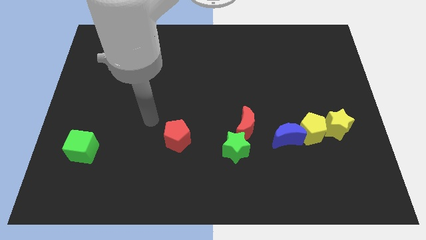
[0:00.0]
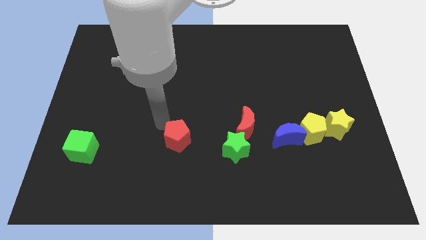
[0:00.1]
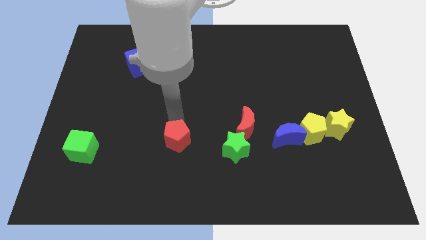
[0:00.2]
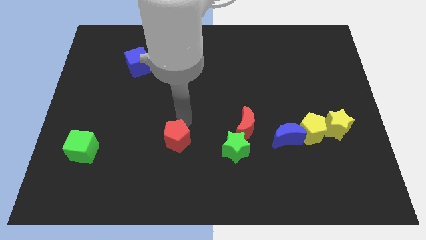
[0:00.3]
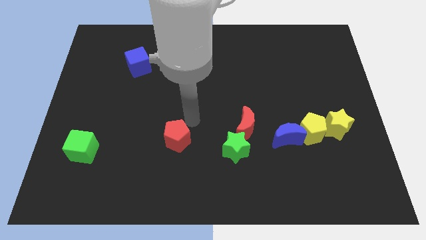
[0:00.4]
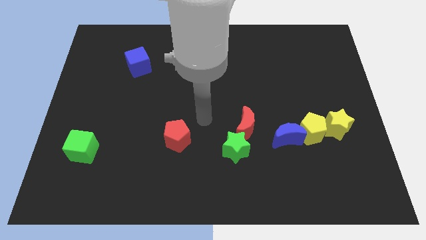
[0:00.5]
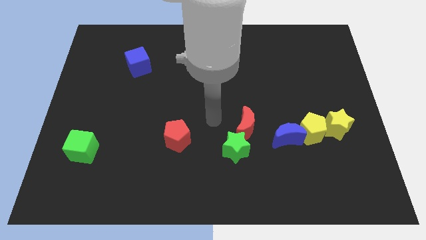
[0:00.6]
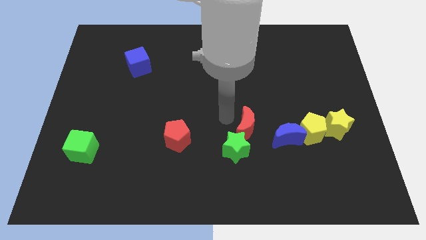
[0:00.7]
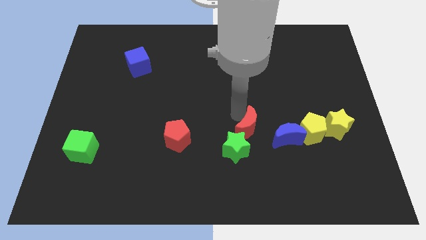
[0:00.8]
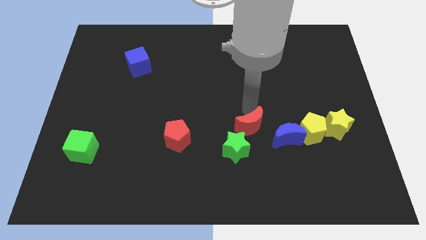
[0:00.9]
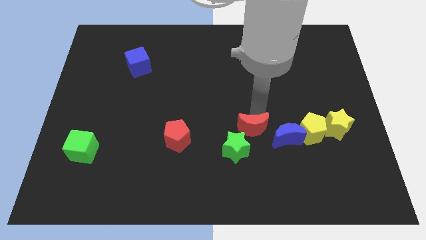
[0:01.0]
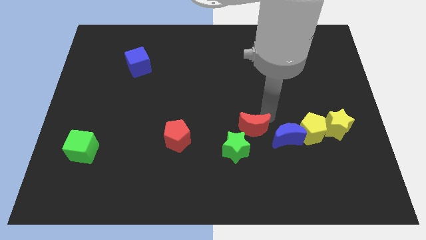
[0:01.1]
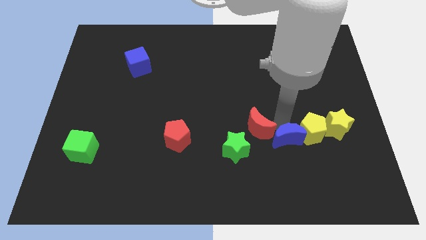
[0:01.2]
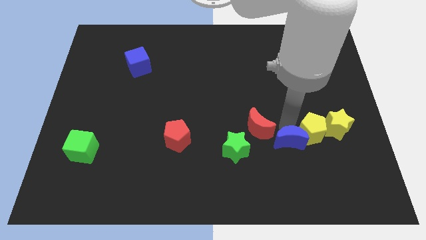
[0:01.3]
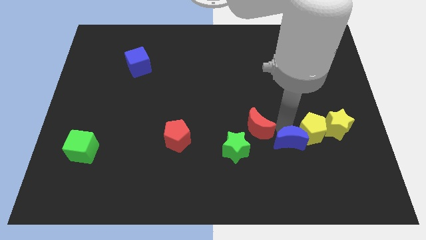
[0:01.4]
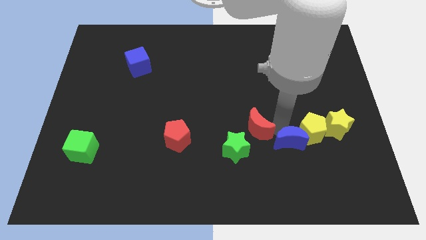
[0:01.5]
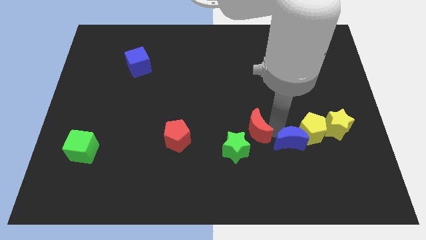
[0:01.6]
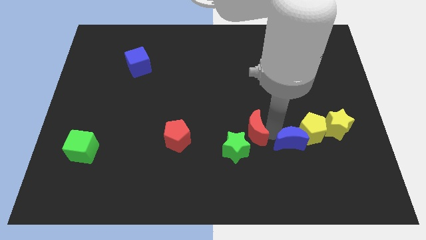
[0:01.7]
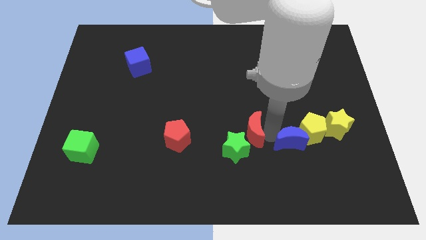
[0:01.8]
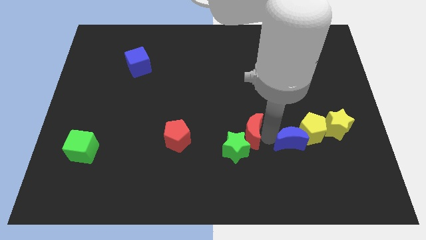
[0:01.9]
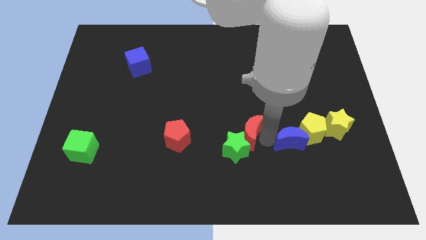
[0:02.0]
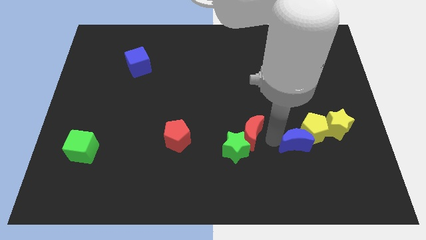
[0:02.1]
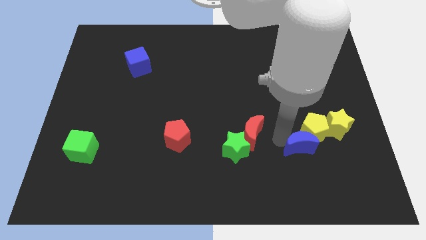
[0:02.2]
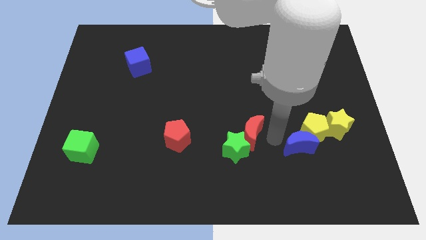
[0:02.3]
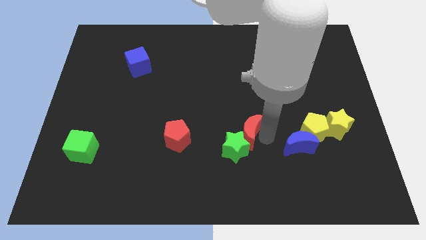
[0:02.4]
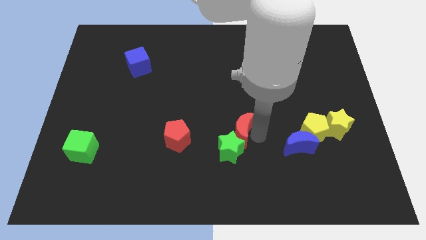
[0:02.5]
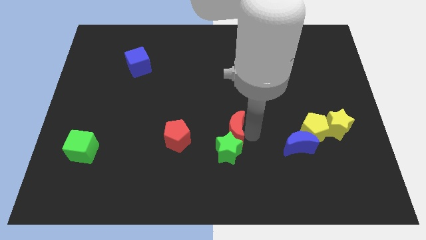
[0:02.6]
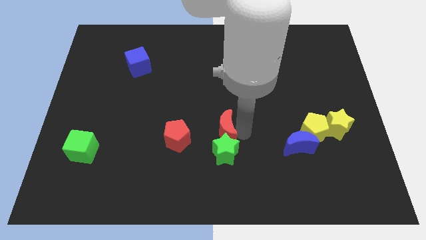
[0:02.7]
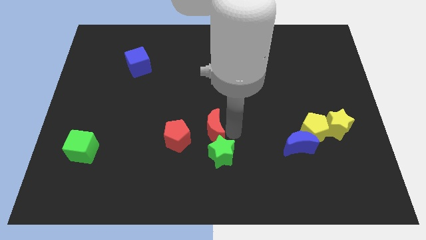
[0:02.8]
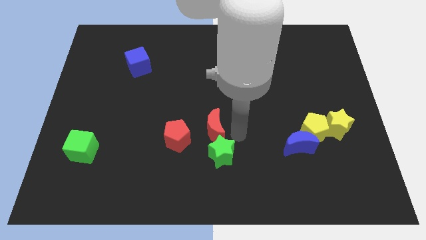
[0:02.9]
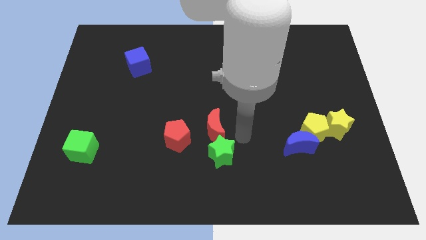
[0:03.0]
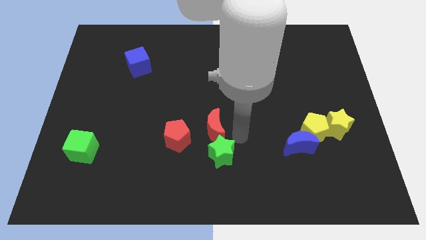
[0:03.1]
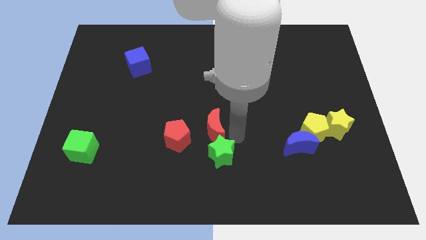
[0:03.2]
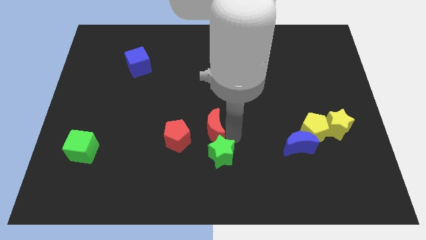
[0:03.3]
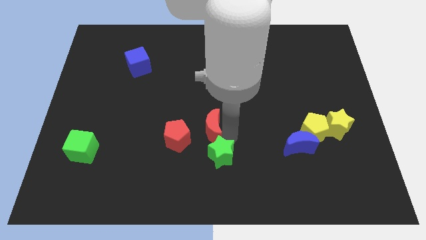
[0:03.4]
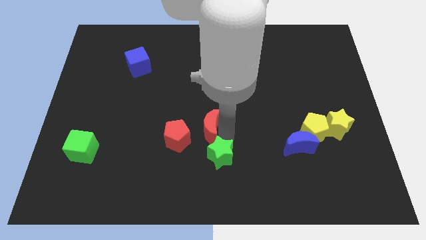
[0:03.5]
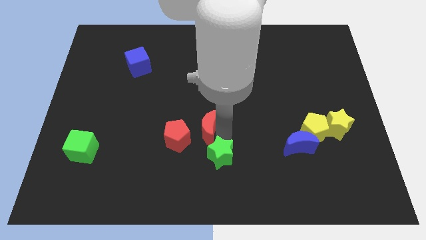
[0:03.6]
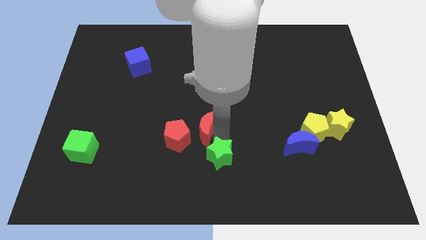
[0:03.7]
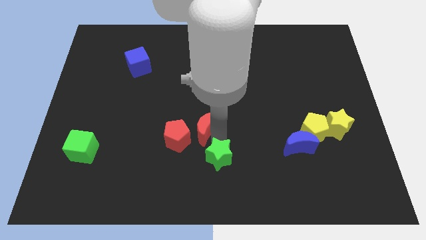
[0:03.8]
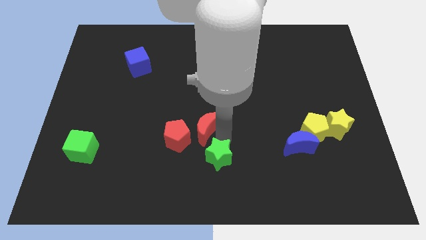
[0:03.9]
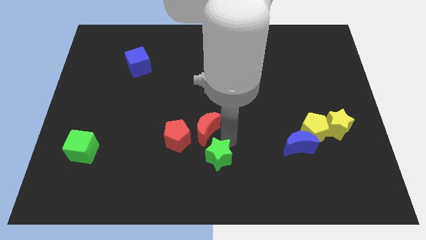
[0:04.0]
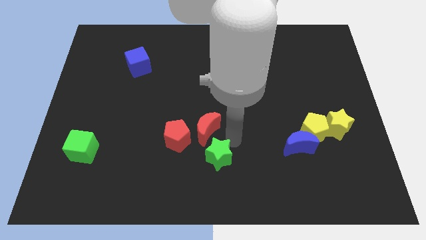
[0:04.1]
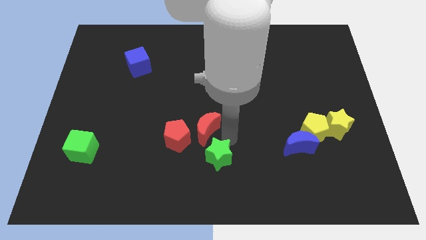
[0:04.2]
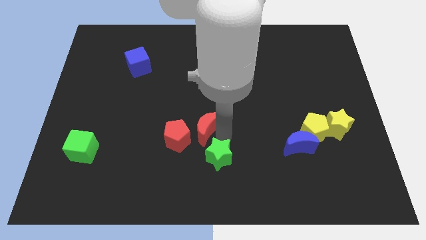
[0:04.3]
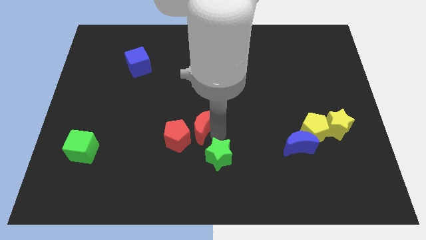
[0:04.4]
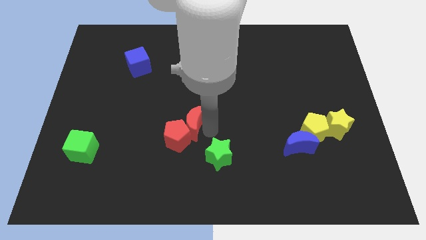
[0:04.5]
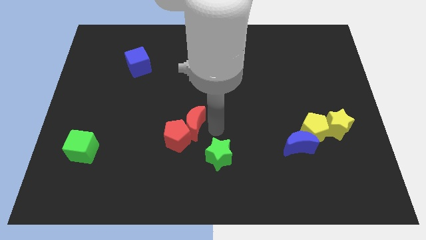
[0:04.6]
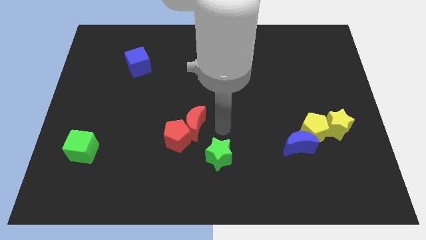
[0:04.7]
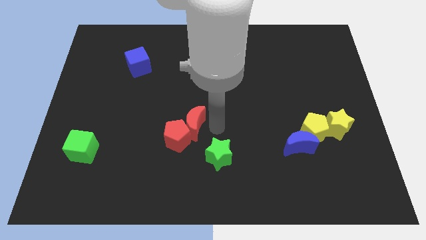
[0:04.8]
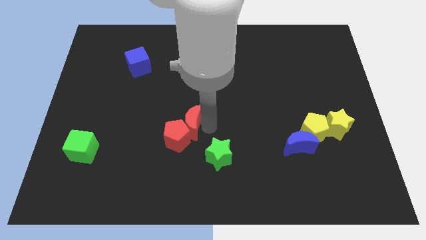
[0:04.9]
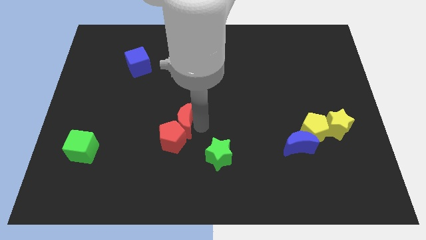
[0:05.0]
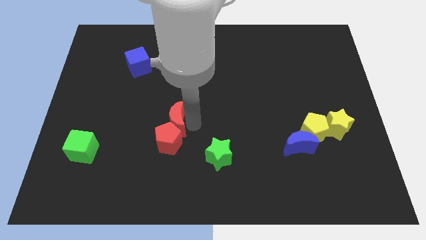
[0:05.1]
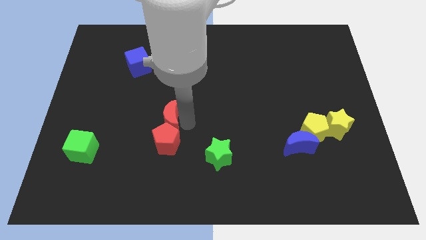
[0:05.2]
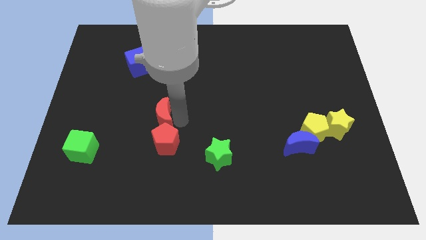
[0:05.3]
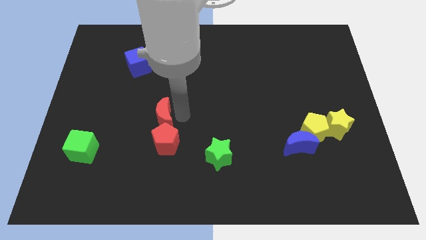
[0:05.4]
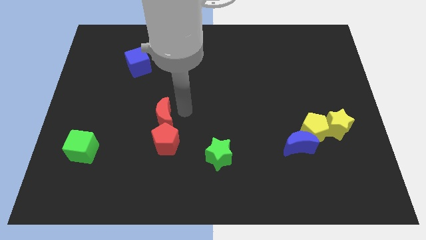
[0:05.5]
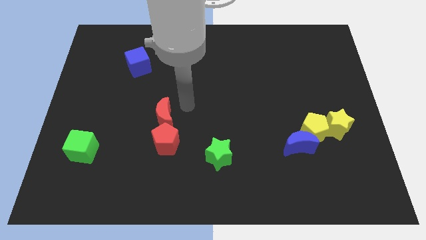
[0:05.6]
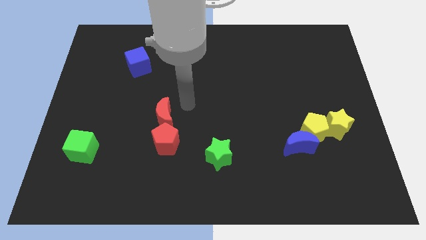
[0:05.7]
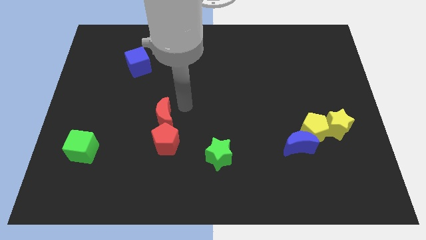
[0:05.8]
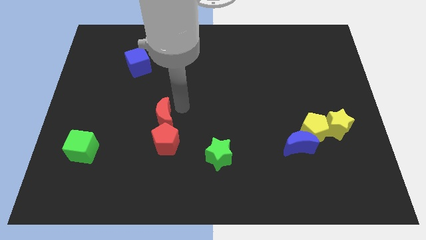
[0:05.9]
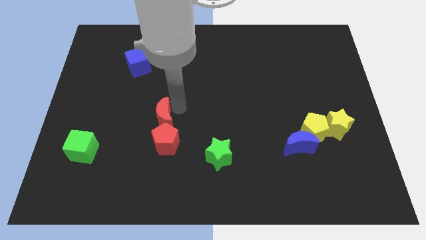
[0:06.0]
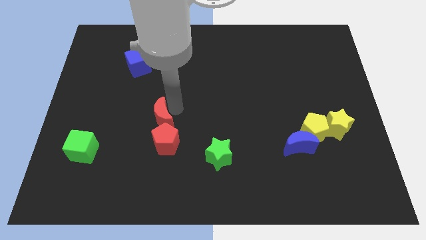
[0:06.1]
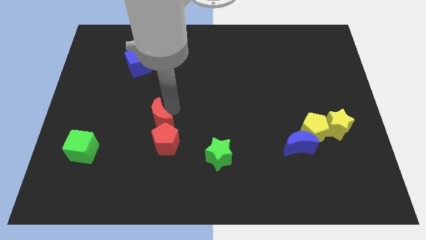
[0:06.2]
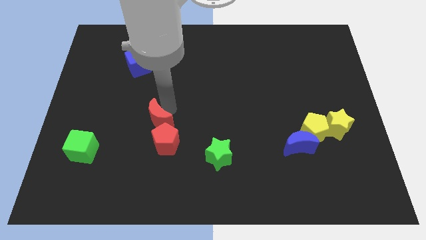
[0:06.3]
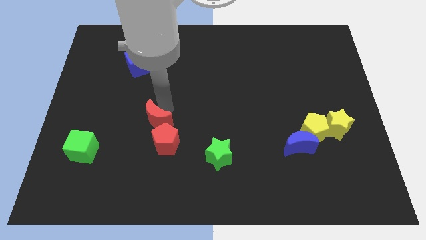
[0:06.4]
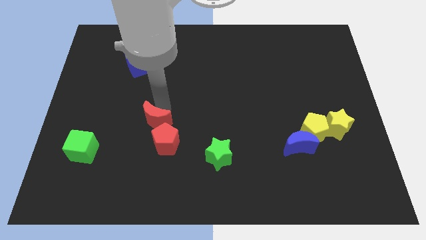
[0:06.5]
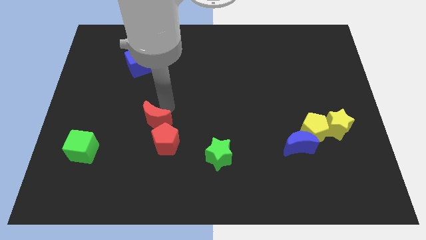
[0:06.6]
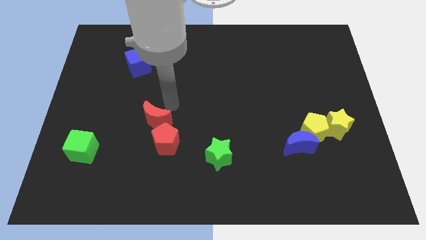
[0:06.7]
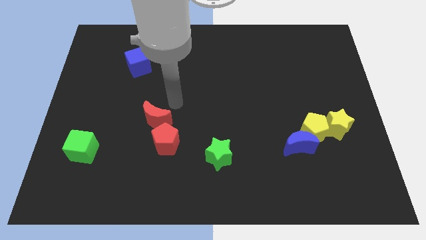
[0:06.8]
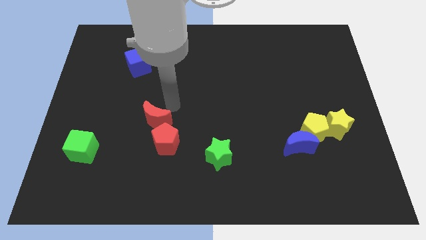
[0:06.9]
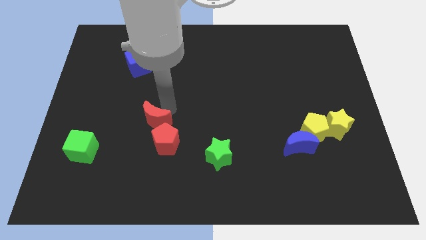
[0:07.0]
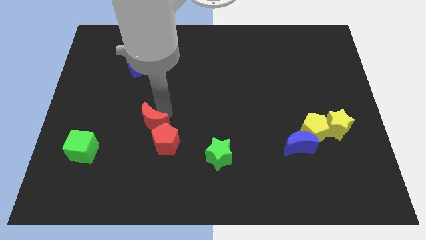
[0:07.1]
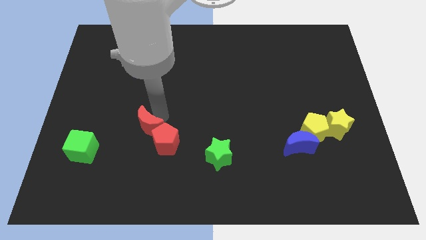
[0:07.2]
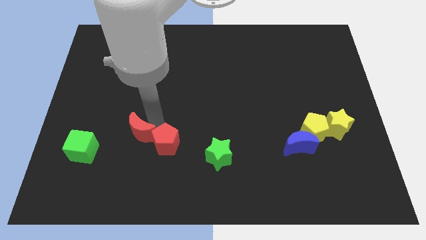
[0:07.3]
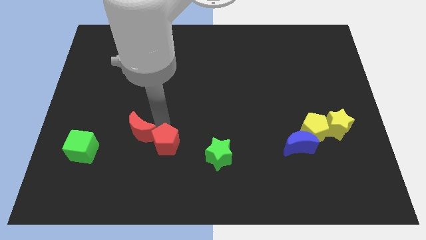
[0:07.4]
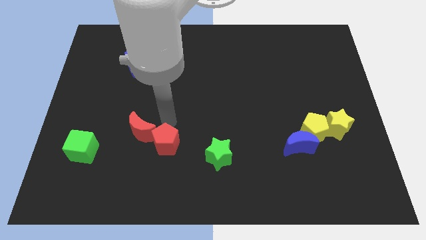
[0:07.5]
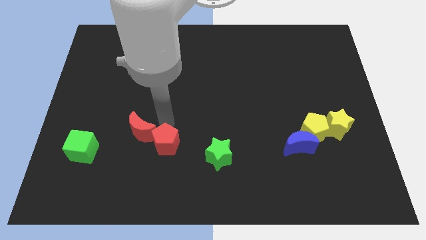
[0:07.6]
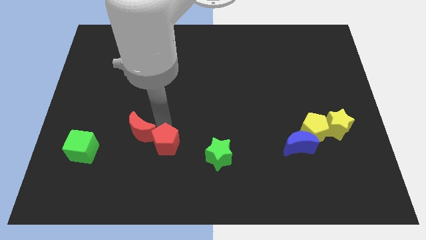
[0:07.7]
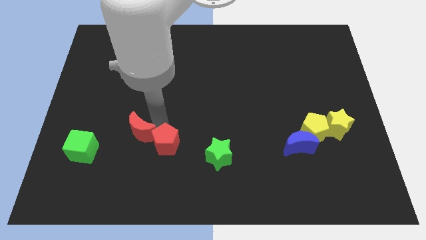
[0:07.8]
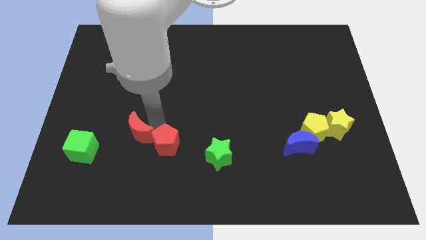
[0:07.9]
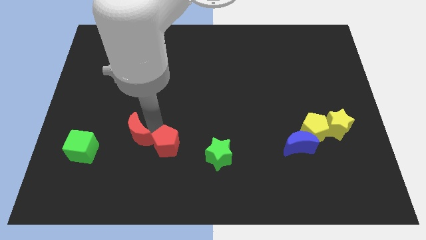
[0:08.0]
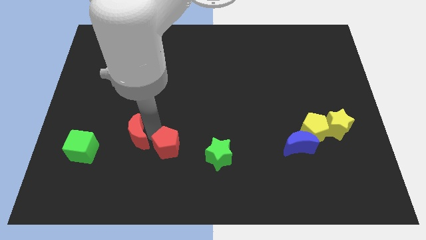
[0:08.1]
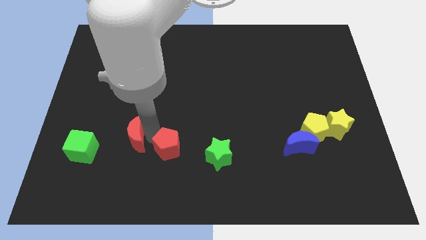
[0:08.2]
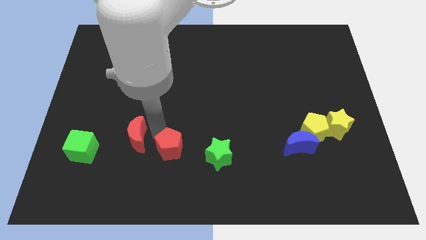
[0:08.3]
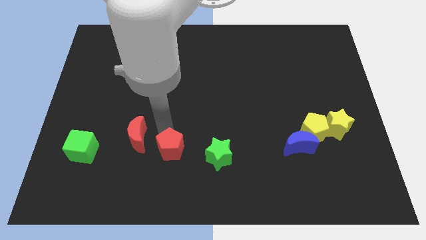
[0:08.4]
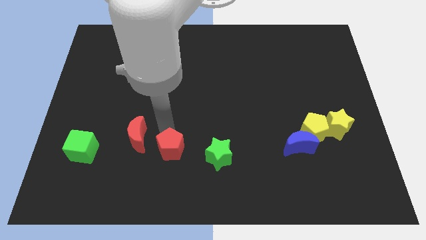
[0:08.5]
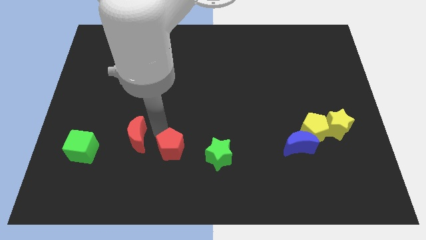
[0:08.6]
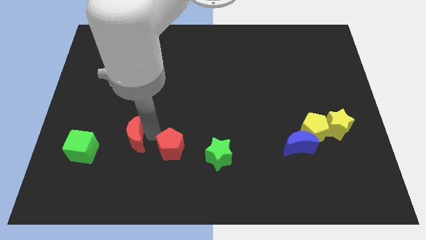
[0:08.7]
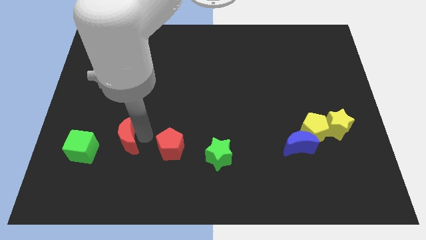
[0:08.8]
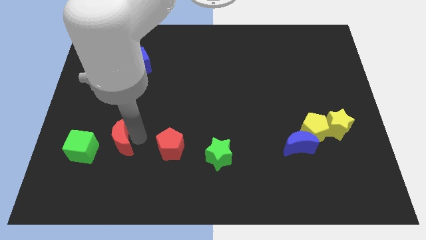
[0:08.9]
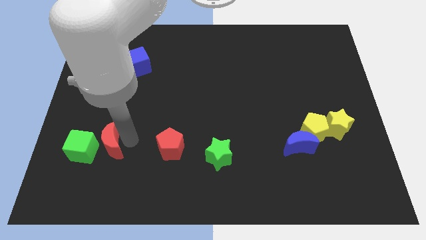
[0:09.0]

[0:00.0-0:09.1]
move the red moon close to the green cube
